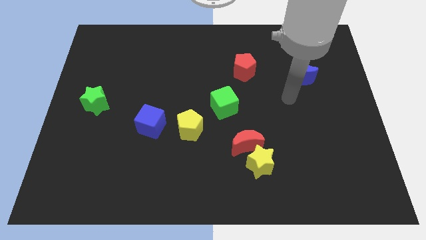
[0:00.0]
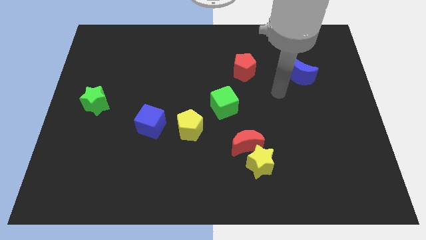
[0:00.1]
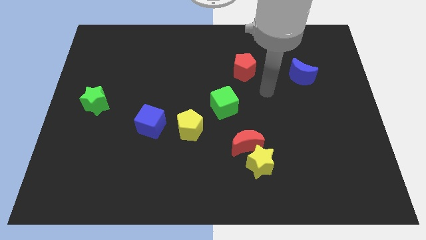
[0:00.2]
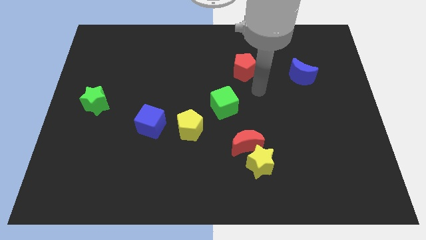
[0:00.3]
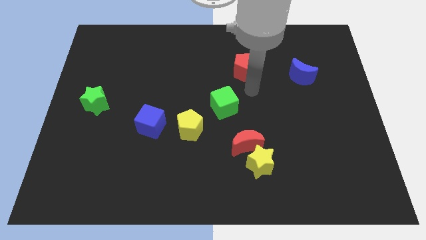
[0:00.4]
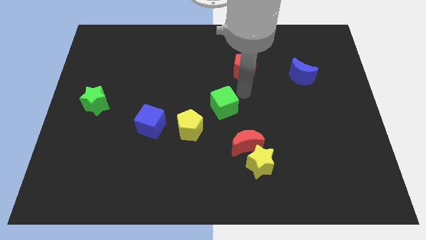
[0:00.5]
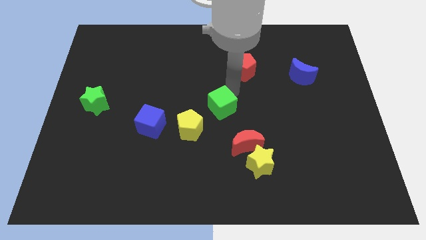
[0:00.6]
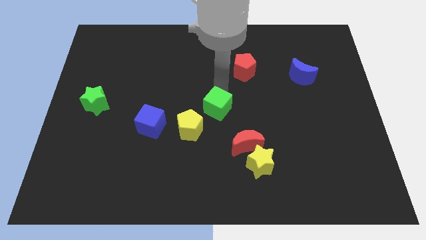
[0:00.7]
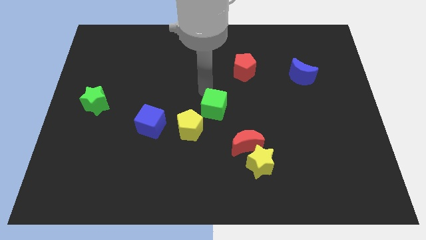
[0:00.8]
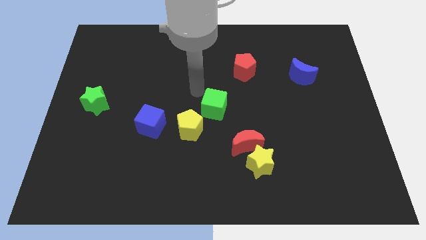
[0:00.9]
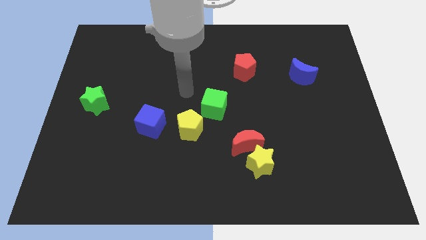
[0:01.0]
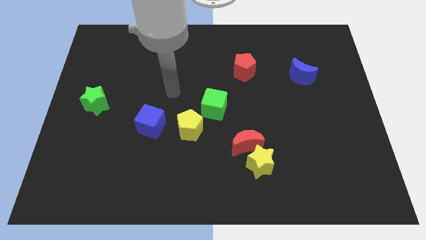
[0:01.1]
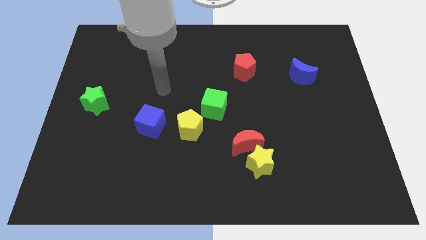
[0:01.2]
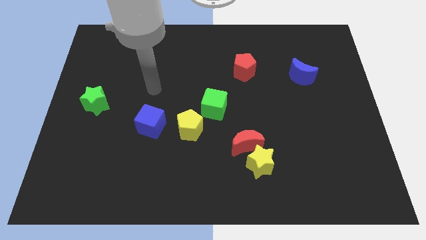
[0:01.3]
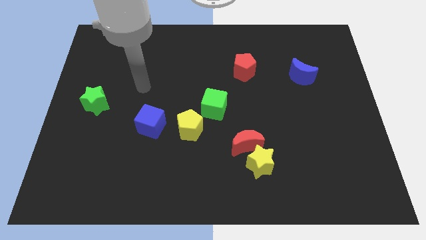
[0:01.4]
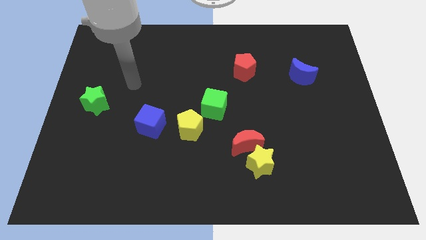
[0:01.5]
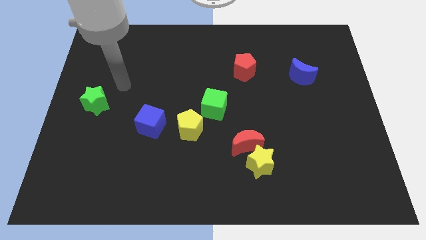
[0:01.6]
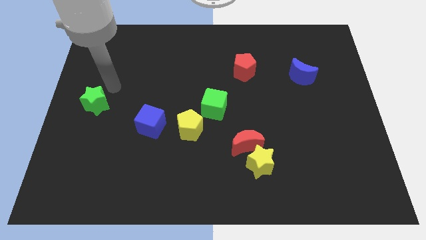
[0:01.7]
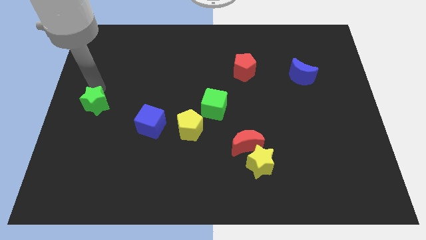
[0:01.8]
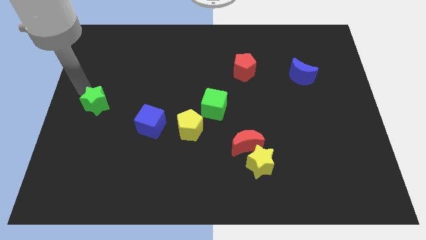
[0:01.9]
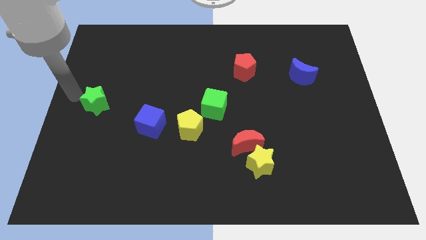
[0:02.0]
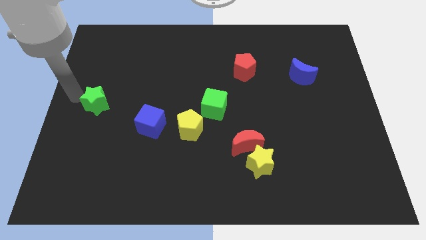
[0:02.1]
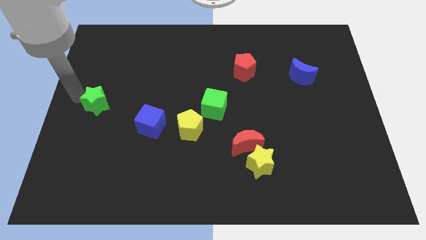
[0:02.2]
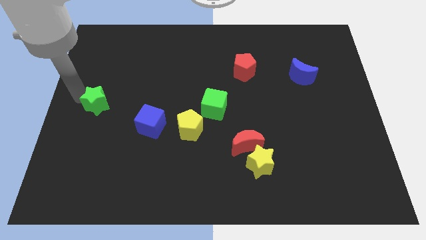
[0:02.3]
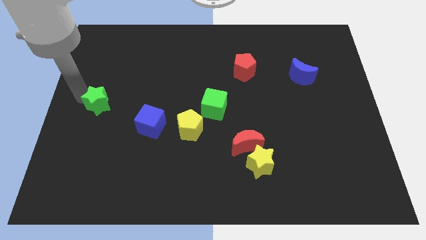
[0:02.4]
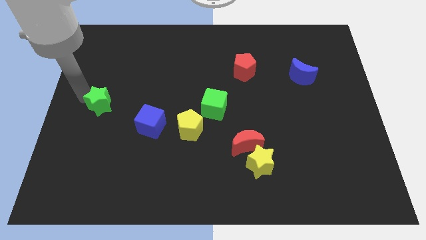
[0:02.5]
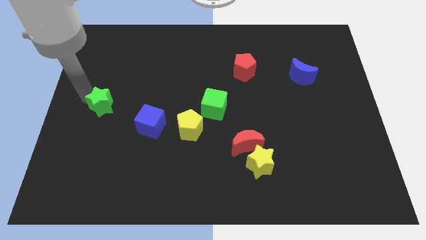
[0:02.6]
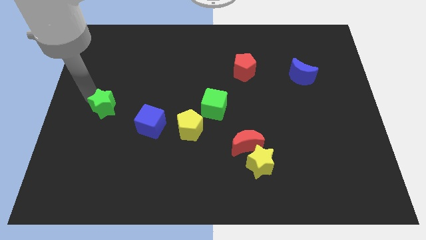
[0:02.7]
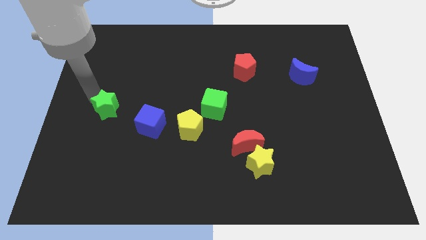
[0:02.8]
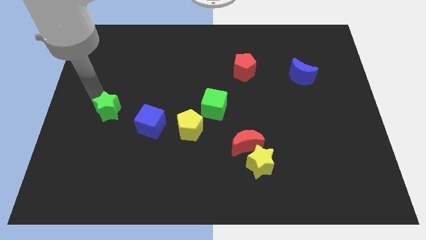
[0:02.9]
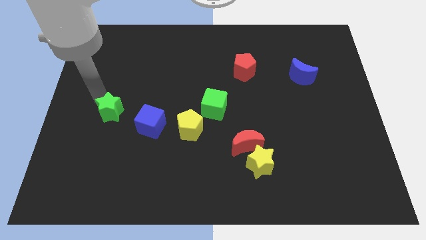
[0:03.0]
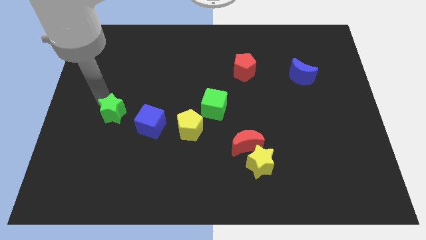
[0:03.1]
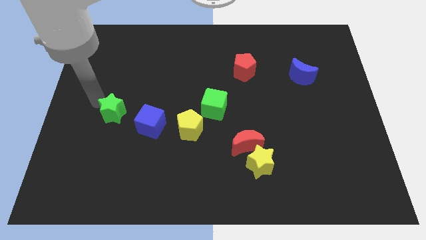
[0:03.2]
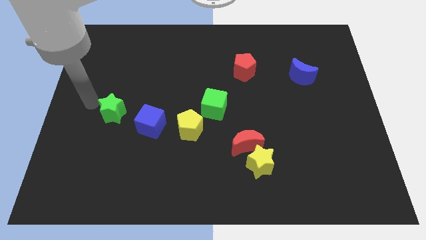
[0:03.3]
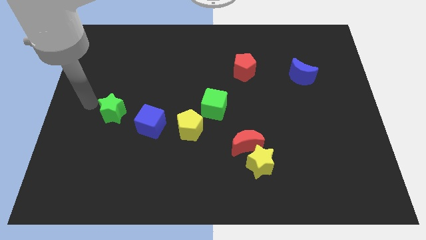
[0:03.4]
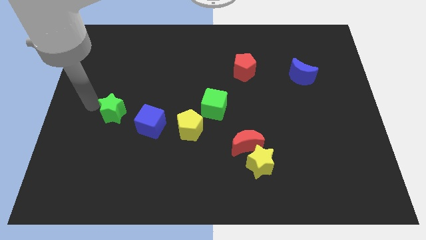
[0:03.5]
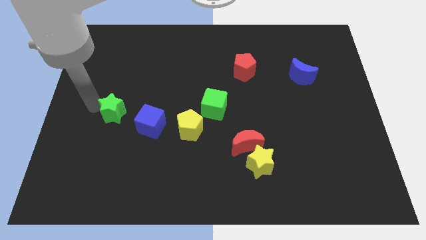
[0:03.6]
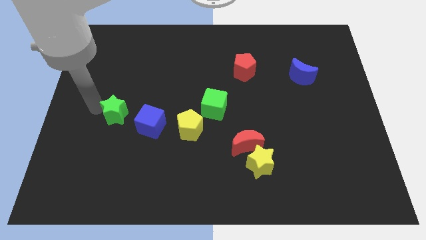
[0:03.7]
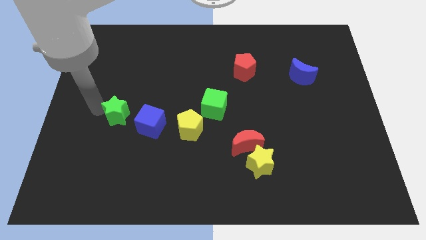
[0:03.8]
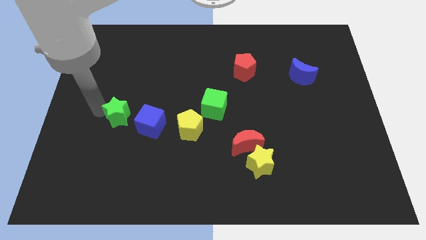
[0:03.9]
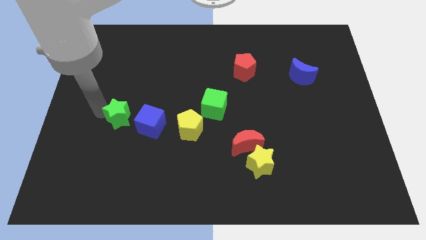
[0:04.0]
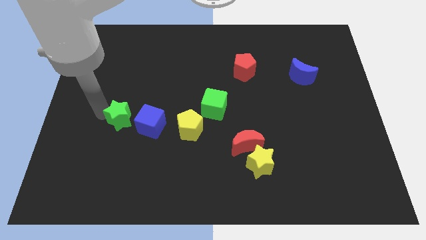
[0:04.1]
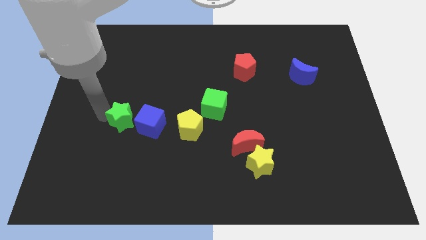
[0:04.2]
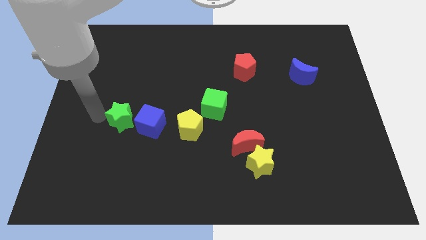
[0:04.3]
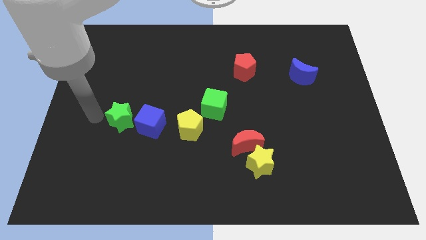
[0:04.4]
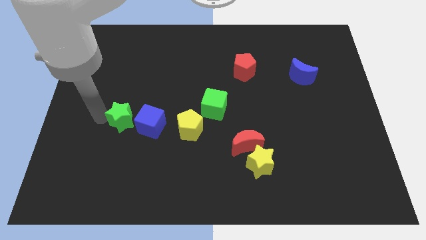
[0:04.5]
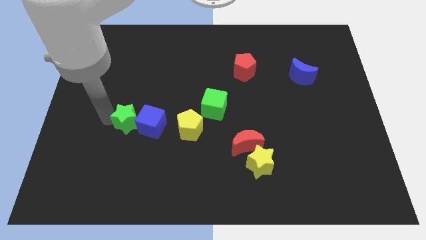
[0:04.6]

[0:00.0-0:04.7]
put the green star towards the blue cube

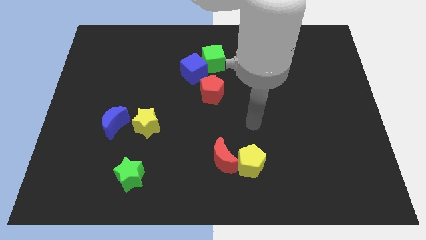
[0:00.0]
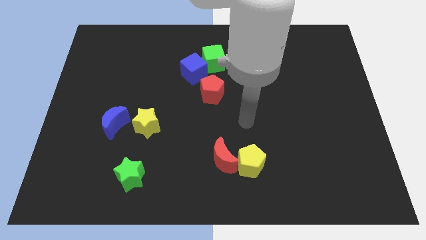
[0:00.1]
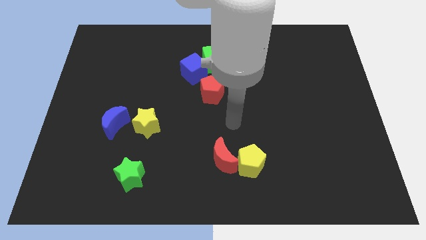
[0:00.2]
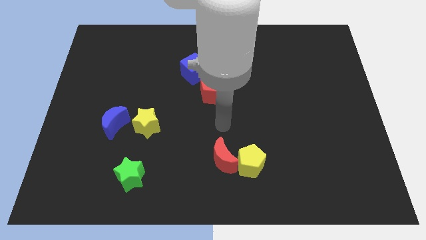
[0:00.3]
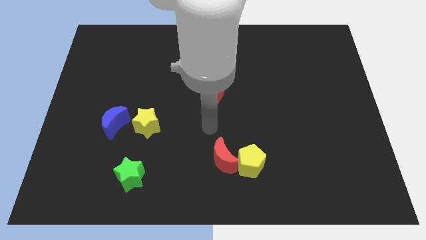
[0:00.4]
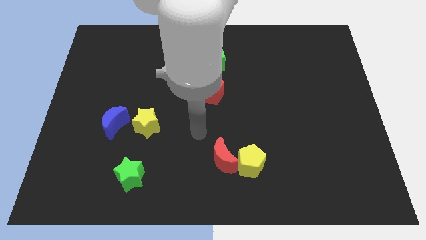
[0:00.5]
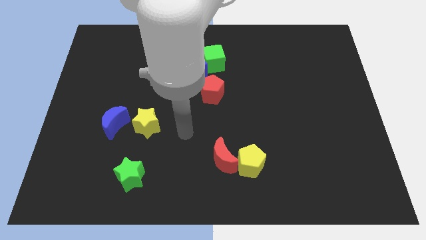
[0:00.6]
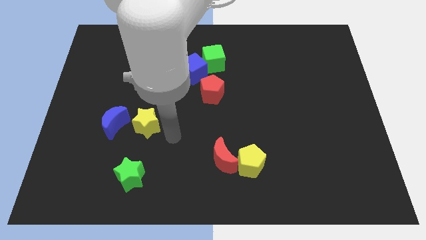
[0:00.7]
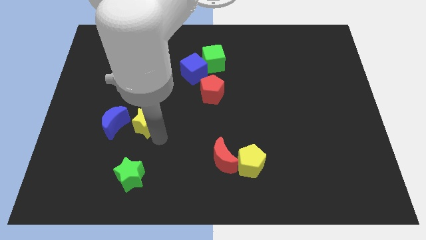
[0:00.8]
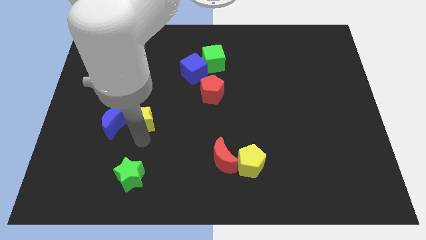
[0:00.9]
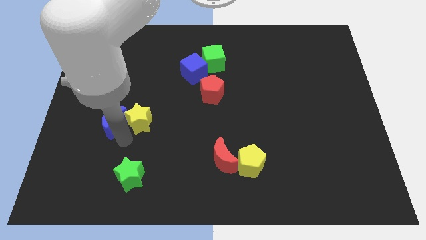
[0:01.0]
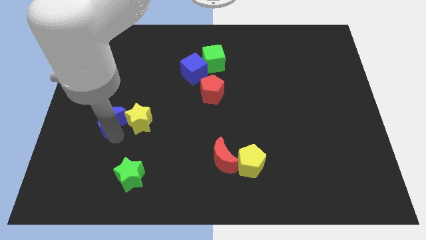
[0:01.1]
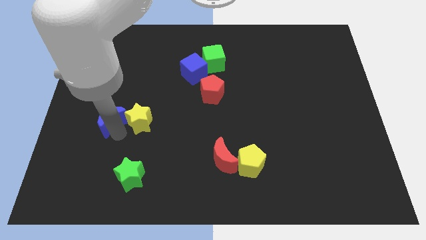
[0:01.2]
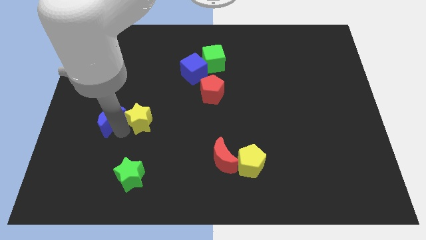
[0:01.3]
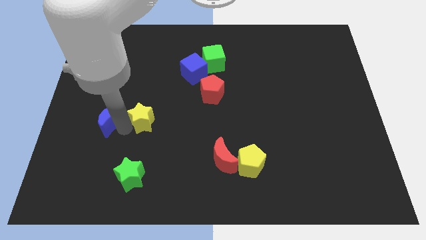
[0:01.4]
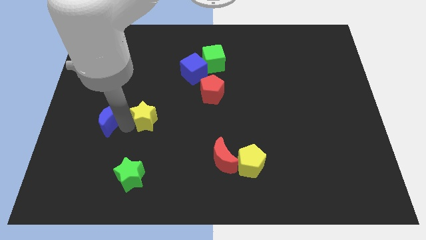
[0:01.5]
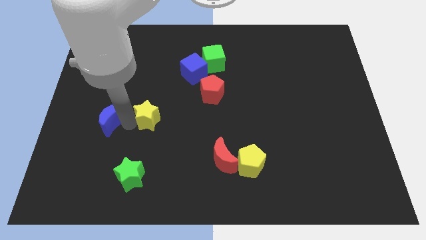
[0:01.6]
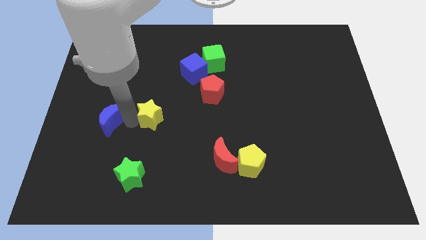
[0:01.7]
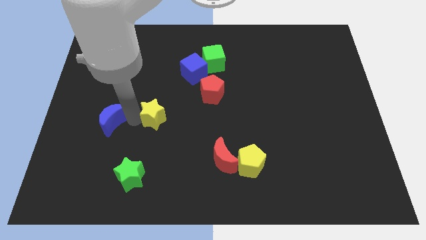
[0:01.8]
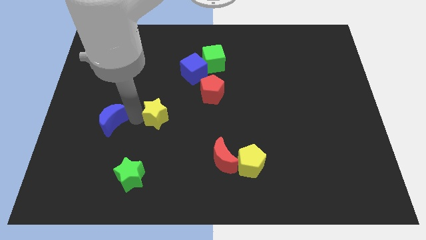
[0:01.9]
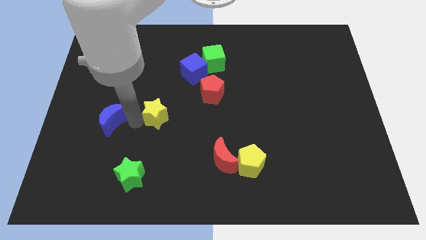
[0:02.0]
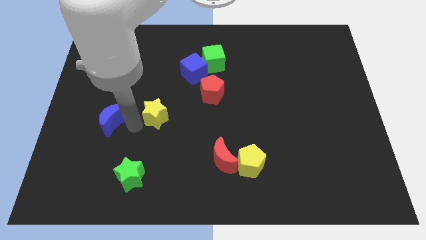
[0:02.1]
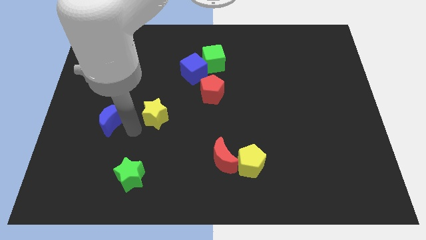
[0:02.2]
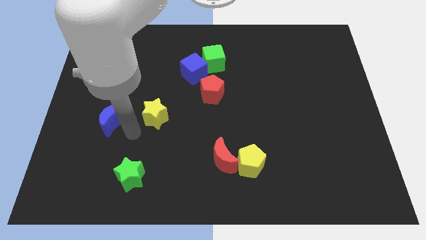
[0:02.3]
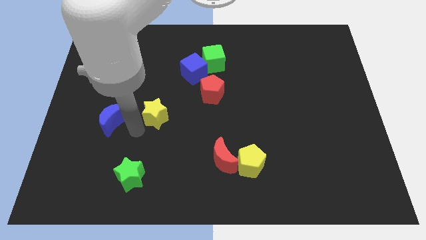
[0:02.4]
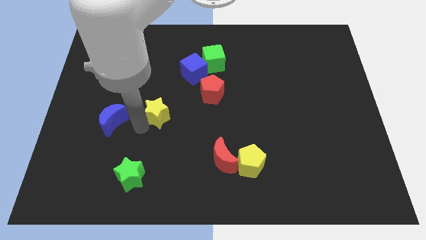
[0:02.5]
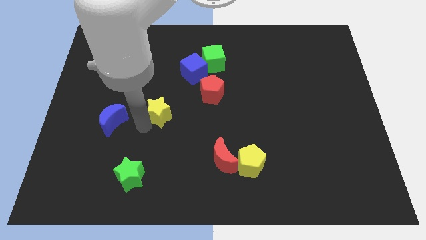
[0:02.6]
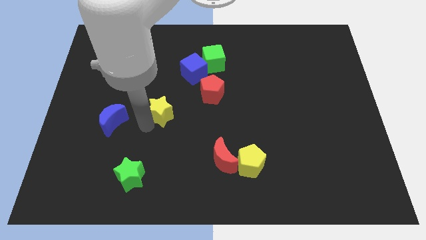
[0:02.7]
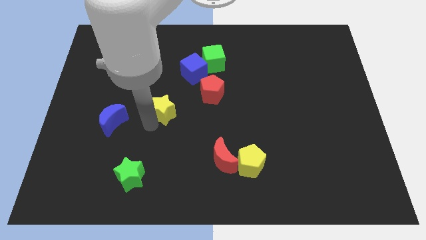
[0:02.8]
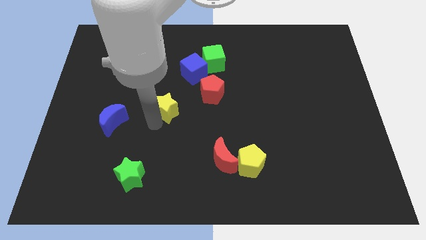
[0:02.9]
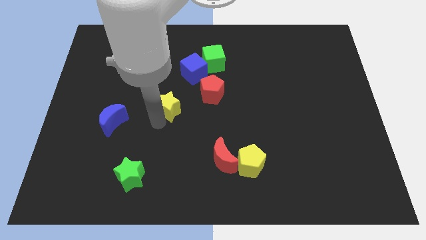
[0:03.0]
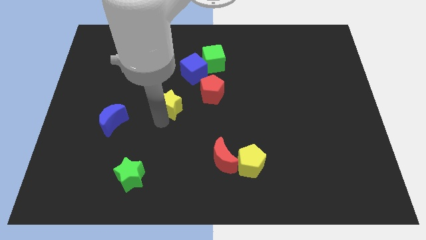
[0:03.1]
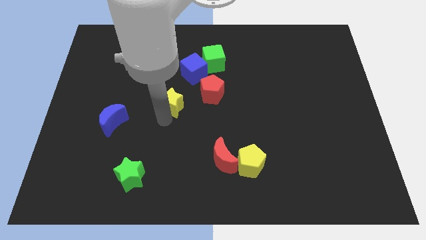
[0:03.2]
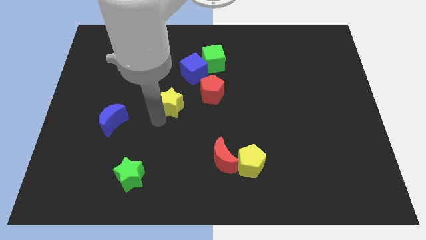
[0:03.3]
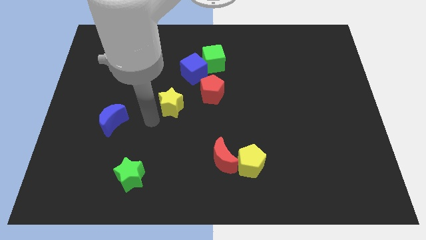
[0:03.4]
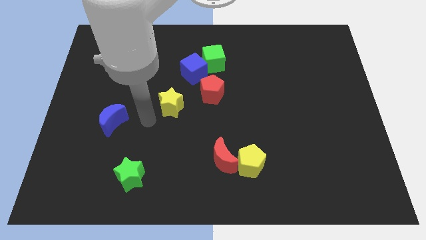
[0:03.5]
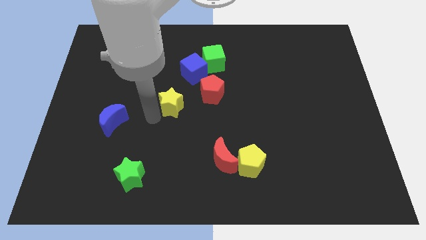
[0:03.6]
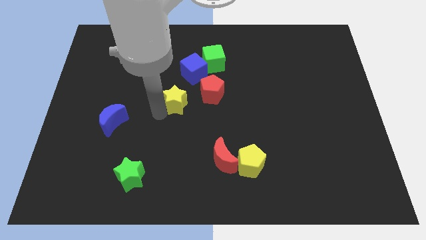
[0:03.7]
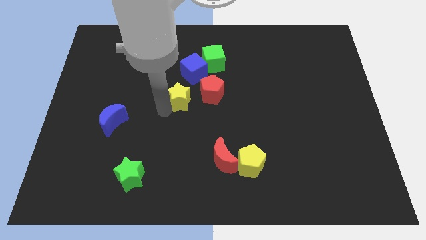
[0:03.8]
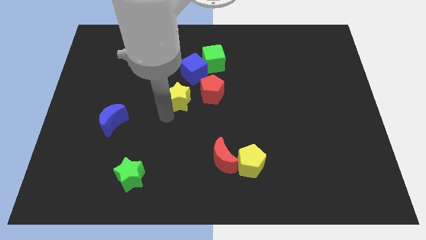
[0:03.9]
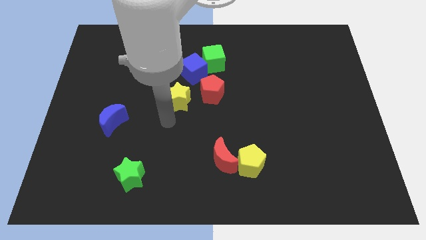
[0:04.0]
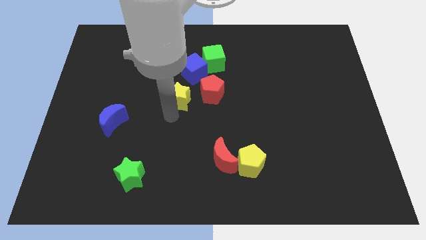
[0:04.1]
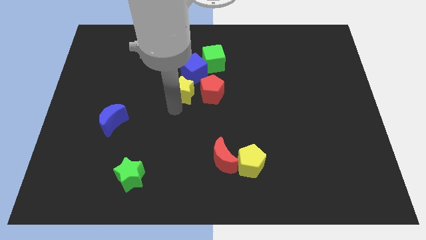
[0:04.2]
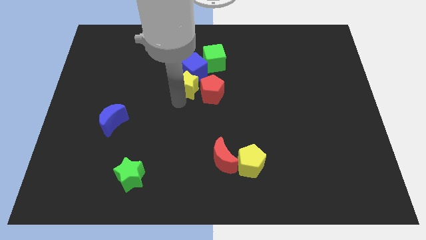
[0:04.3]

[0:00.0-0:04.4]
slide the yellow star towards the blue cube
